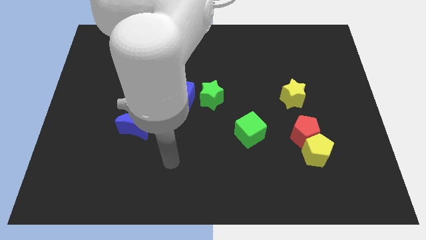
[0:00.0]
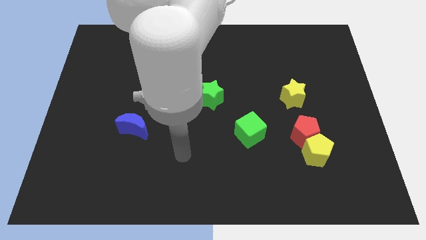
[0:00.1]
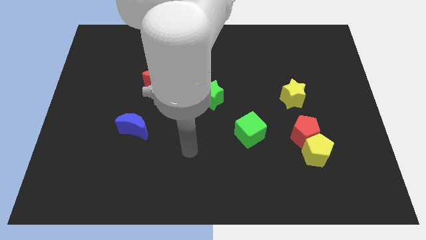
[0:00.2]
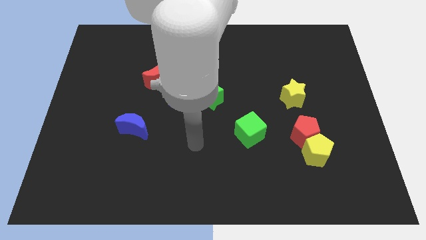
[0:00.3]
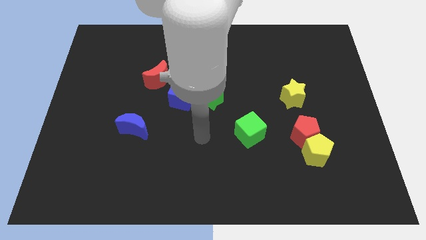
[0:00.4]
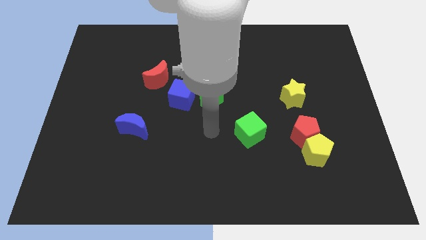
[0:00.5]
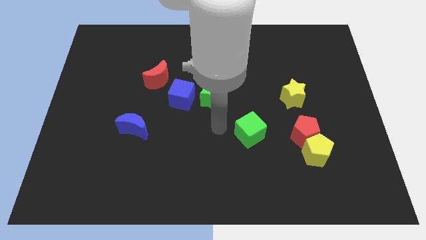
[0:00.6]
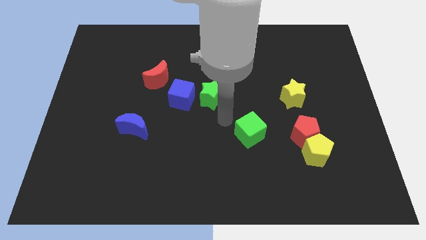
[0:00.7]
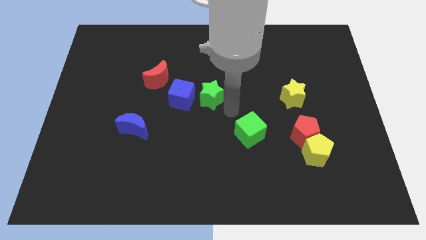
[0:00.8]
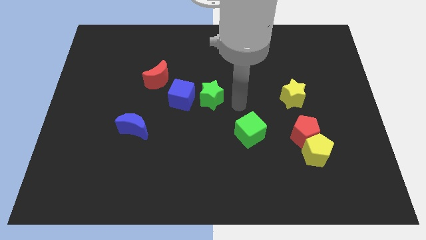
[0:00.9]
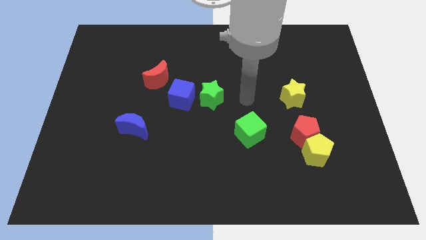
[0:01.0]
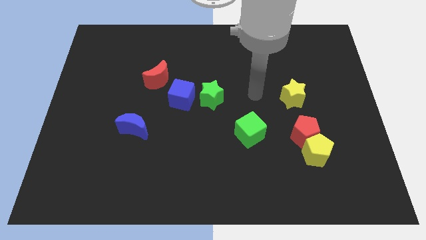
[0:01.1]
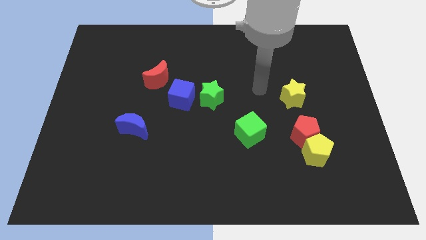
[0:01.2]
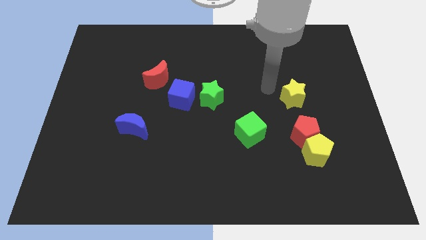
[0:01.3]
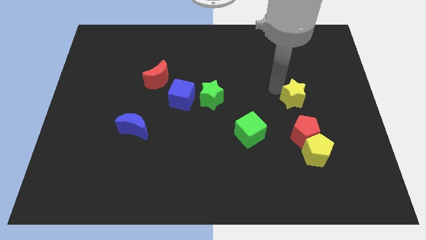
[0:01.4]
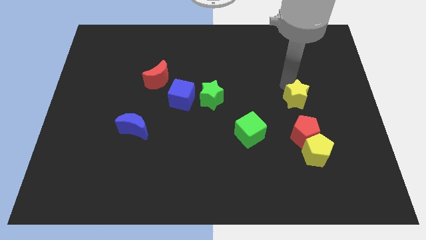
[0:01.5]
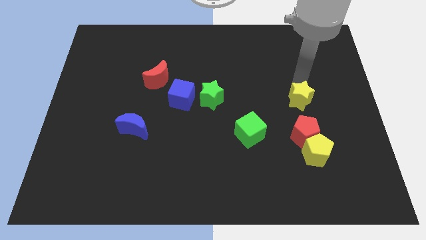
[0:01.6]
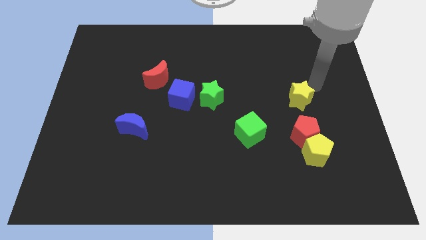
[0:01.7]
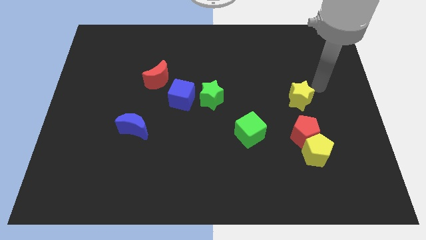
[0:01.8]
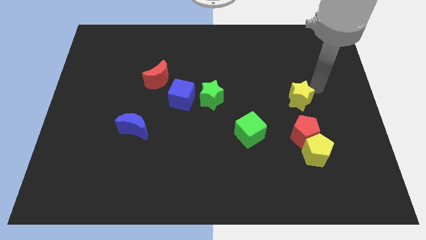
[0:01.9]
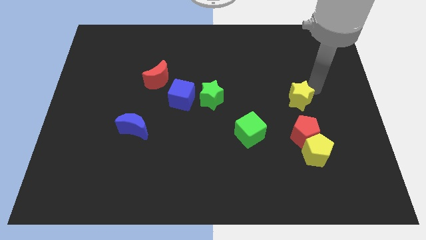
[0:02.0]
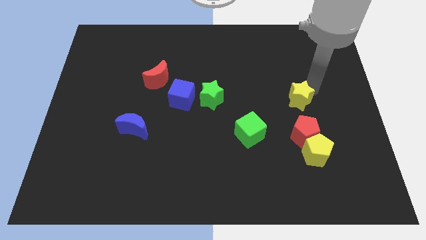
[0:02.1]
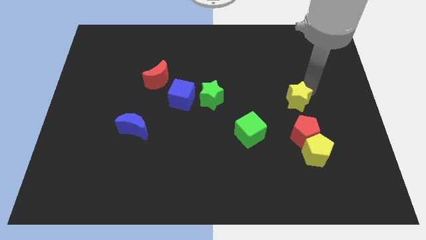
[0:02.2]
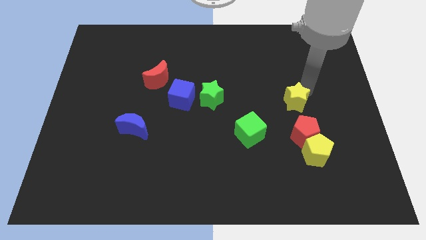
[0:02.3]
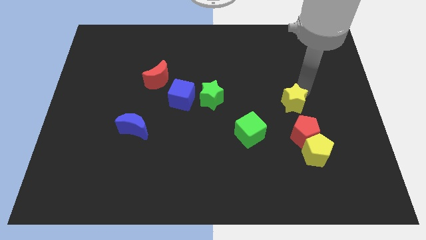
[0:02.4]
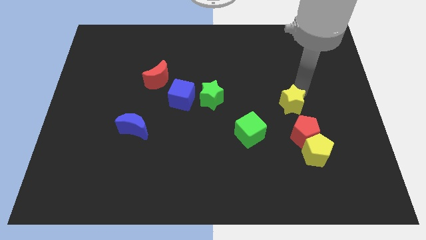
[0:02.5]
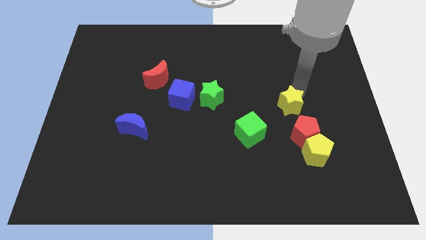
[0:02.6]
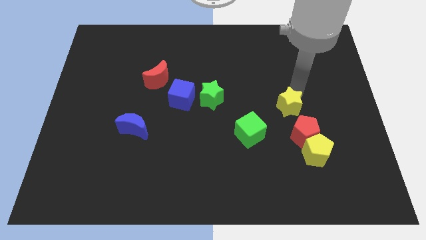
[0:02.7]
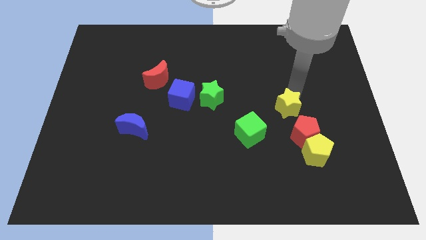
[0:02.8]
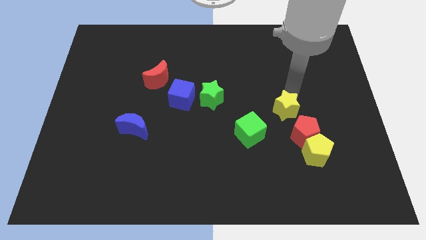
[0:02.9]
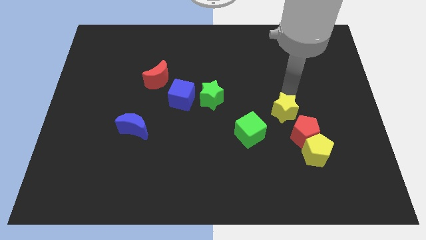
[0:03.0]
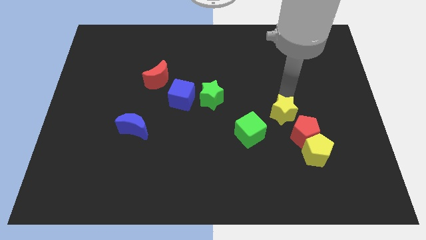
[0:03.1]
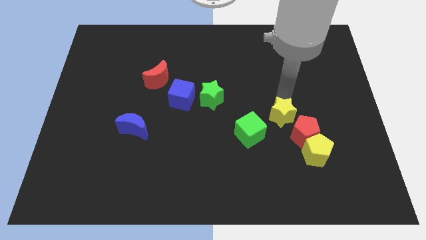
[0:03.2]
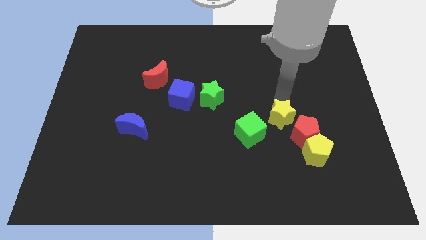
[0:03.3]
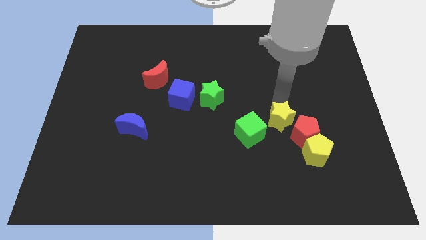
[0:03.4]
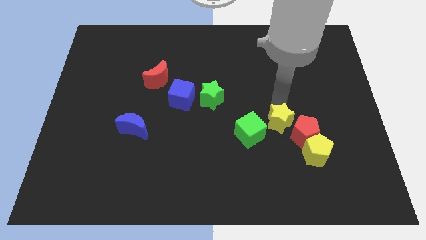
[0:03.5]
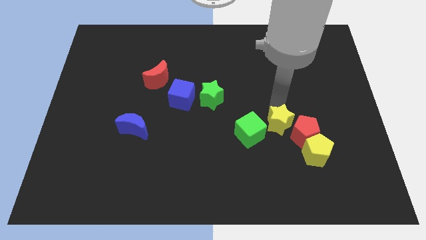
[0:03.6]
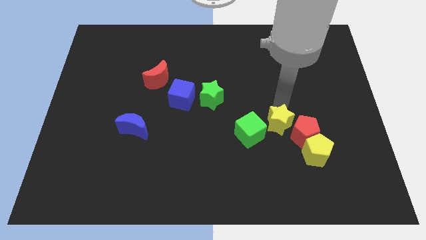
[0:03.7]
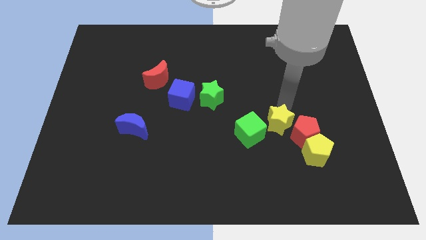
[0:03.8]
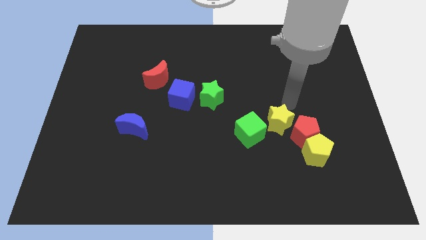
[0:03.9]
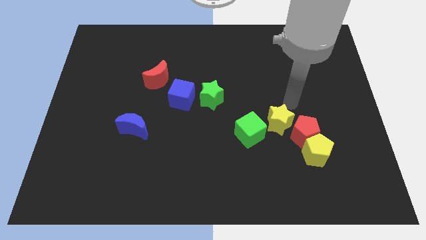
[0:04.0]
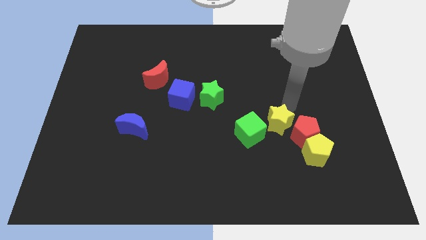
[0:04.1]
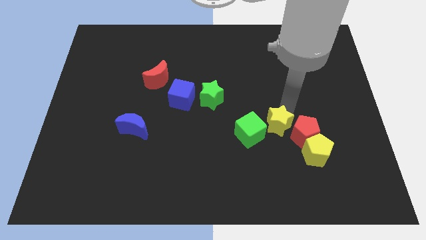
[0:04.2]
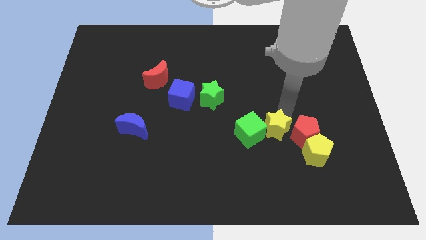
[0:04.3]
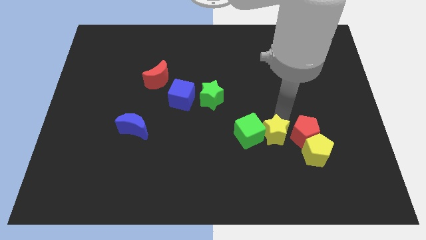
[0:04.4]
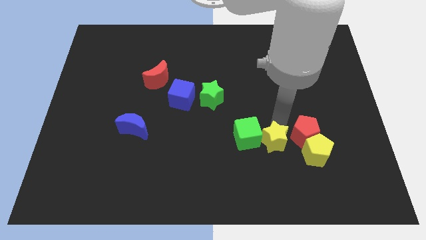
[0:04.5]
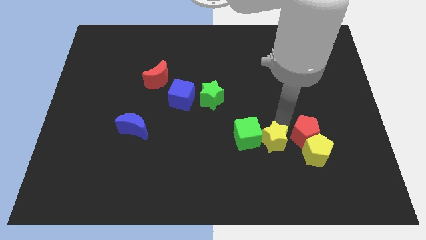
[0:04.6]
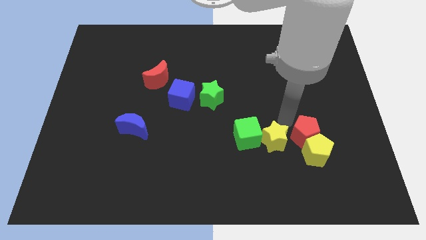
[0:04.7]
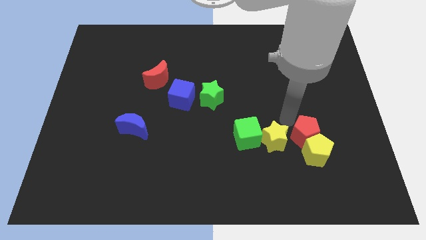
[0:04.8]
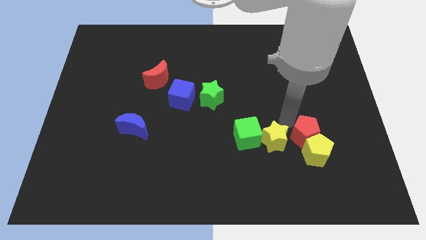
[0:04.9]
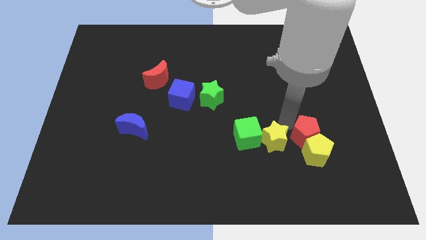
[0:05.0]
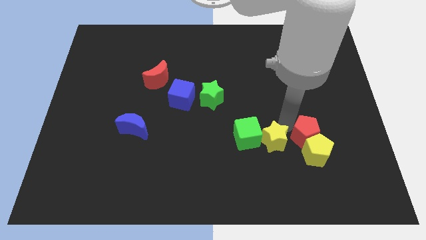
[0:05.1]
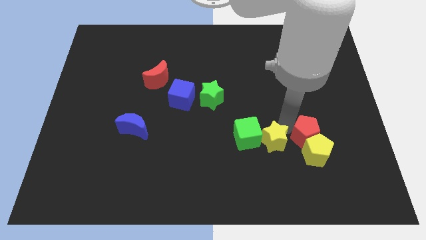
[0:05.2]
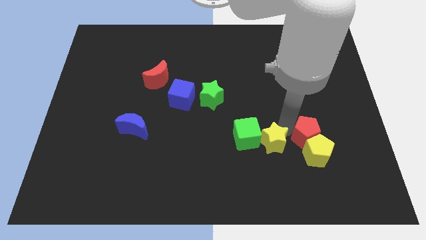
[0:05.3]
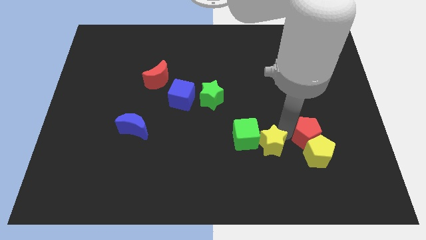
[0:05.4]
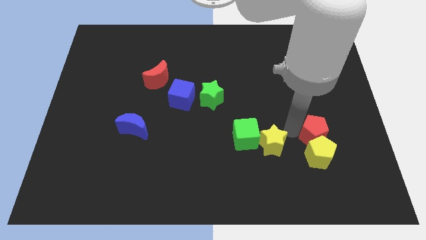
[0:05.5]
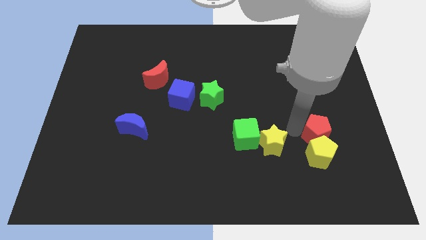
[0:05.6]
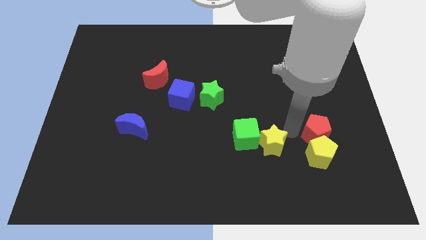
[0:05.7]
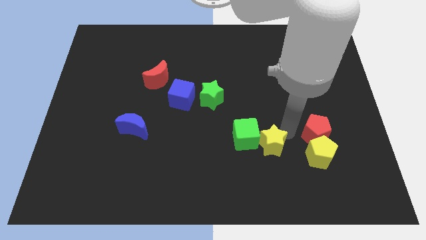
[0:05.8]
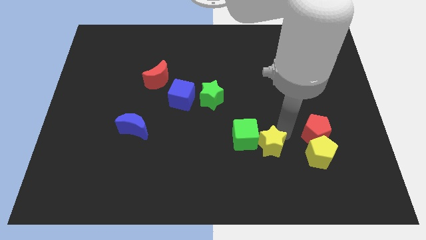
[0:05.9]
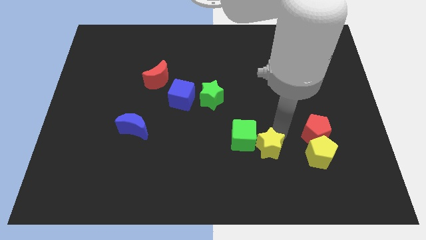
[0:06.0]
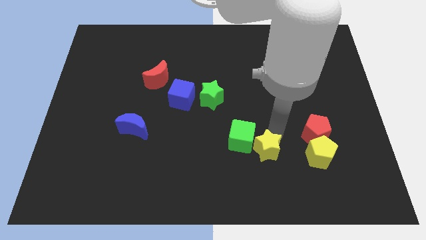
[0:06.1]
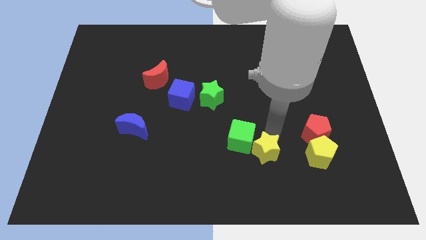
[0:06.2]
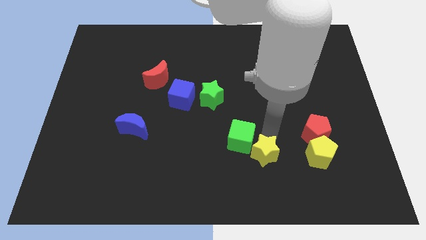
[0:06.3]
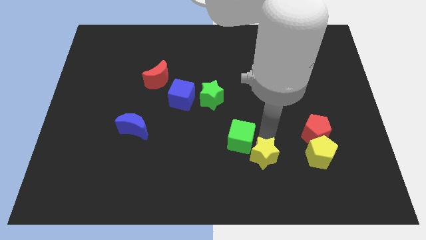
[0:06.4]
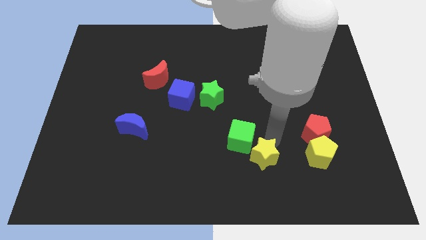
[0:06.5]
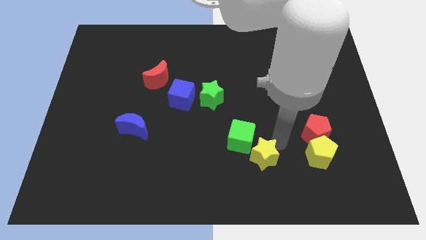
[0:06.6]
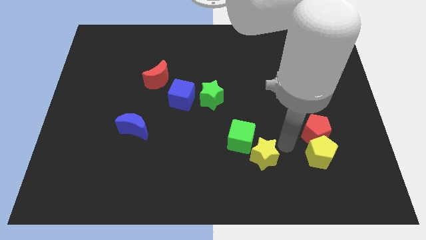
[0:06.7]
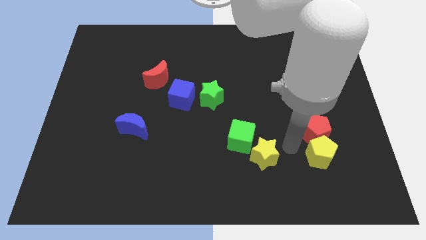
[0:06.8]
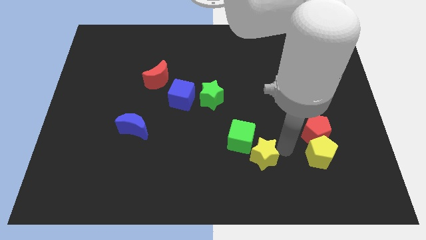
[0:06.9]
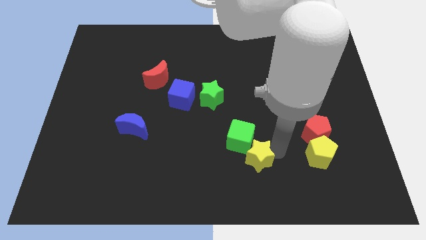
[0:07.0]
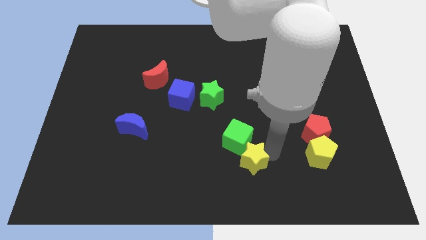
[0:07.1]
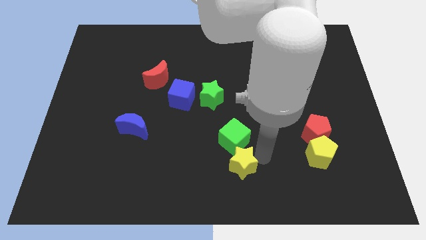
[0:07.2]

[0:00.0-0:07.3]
move the yellow star down and then to the left

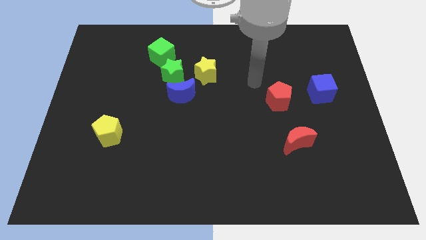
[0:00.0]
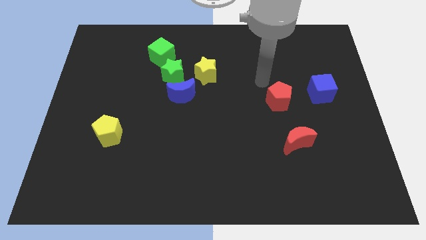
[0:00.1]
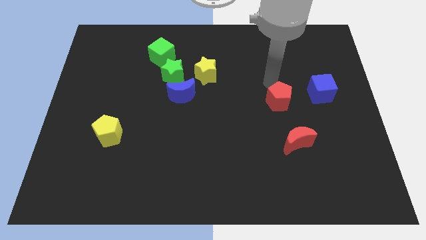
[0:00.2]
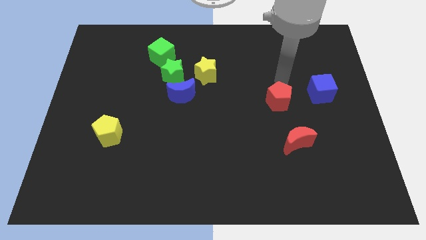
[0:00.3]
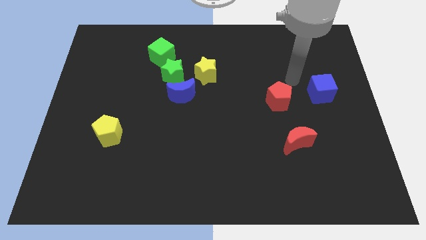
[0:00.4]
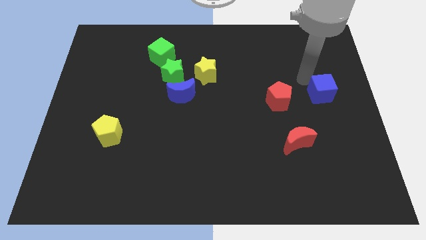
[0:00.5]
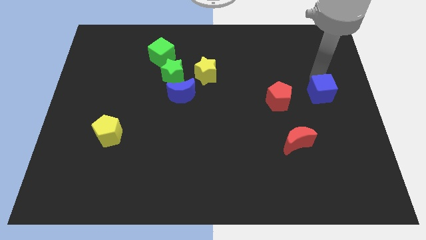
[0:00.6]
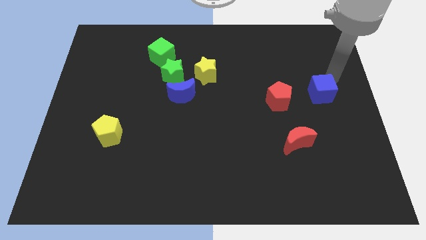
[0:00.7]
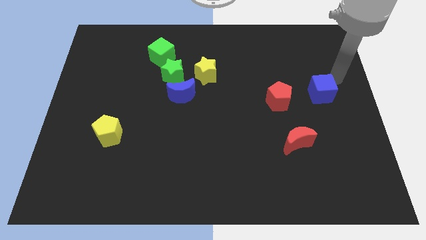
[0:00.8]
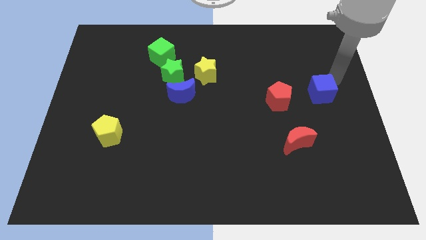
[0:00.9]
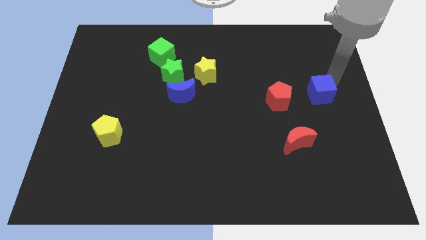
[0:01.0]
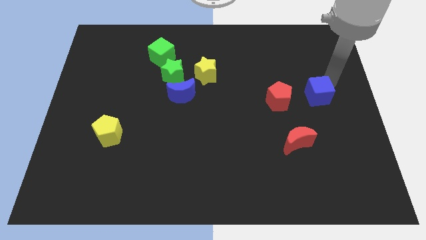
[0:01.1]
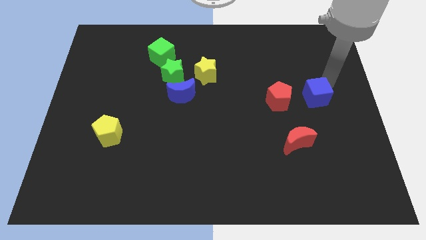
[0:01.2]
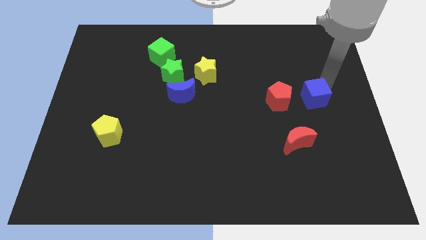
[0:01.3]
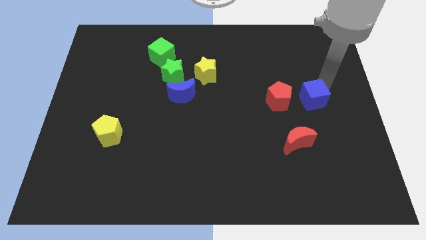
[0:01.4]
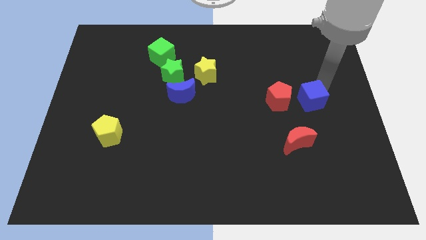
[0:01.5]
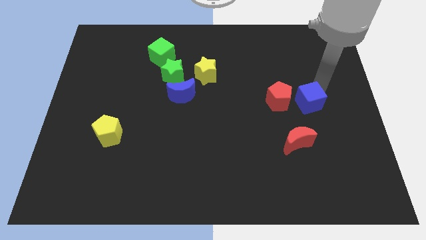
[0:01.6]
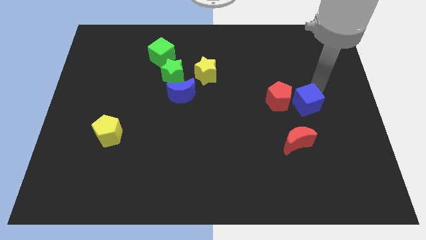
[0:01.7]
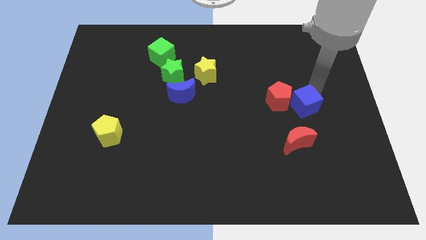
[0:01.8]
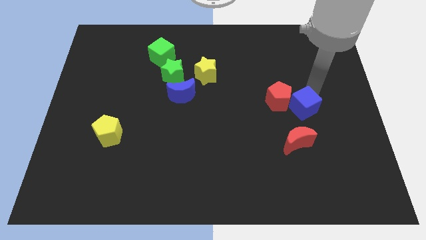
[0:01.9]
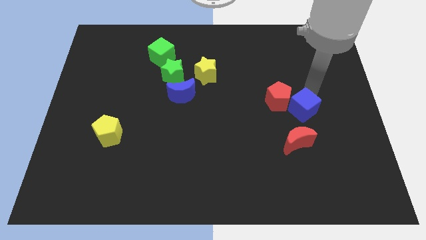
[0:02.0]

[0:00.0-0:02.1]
push the blue cube downwards and then to the left a bit
